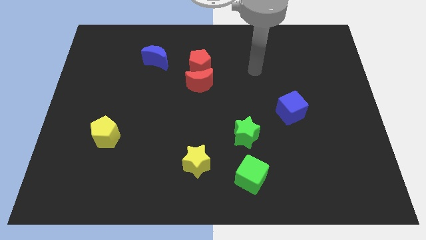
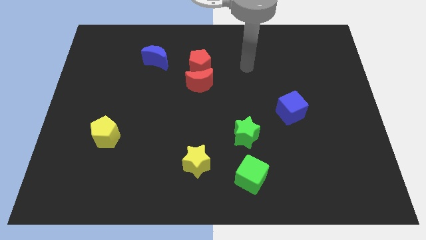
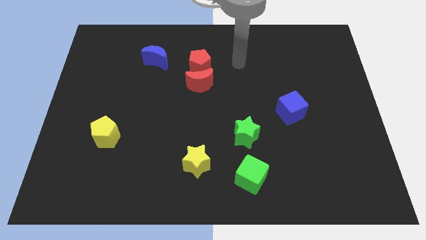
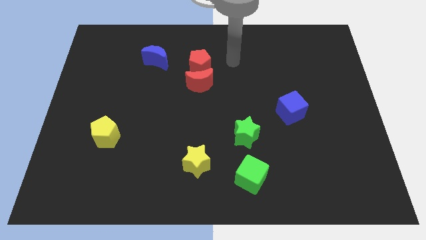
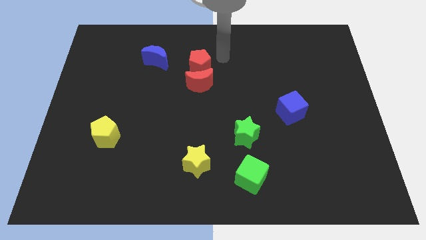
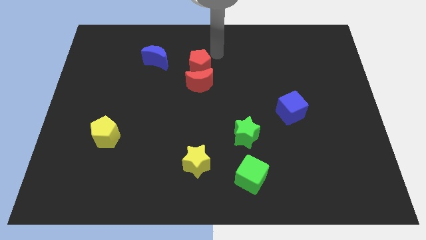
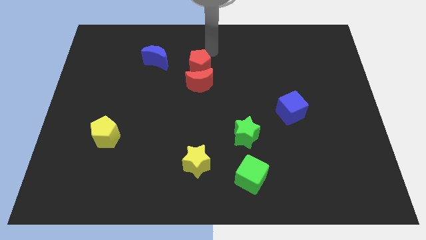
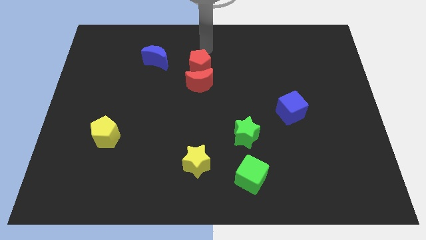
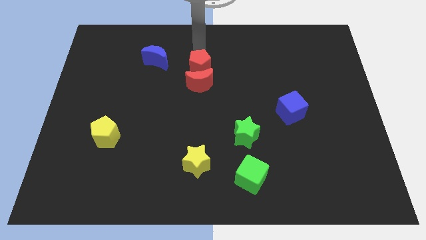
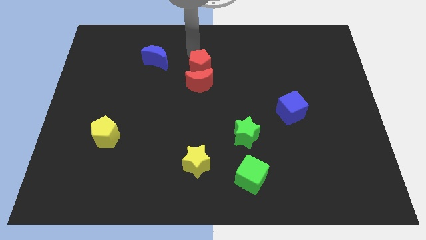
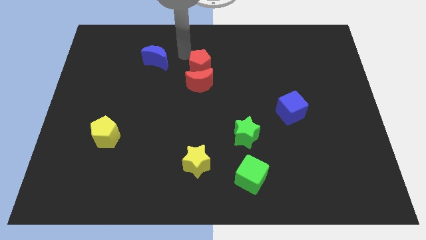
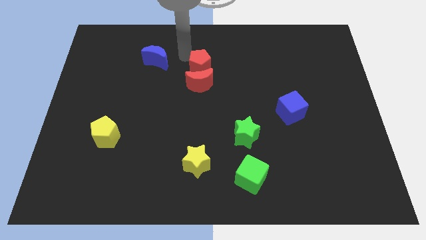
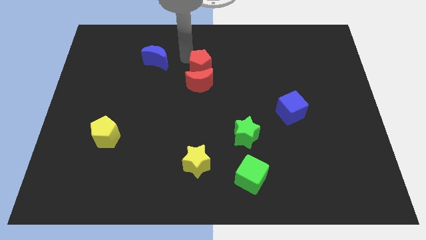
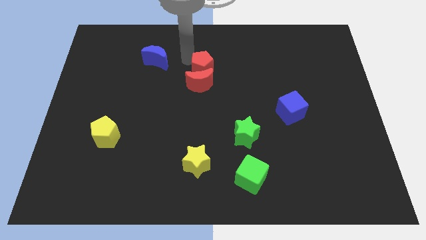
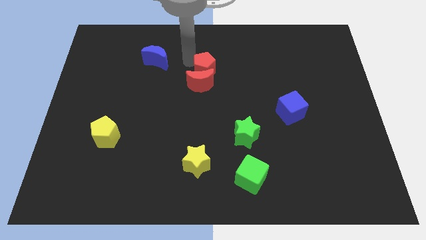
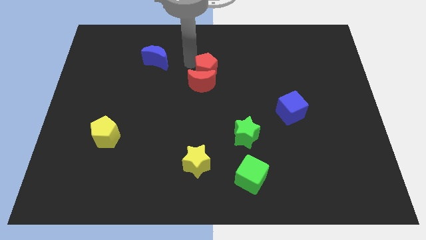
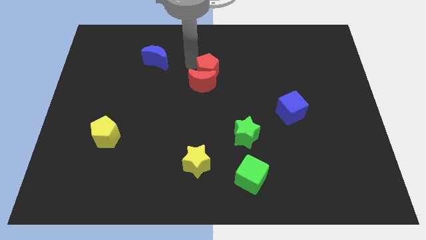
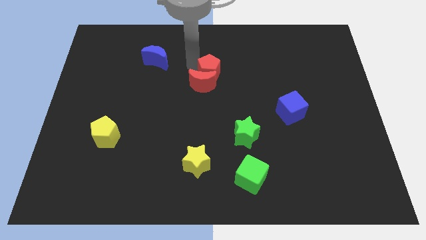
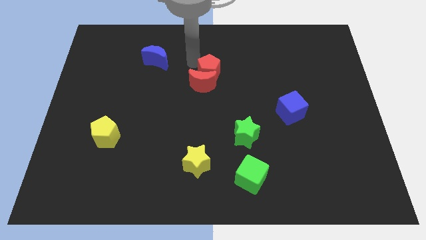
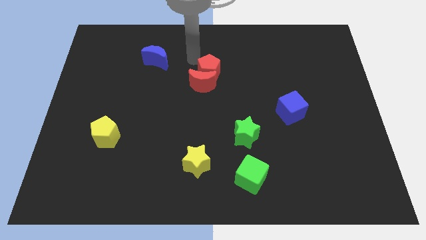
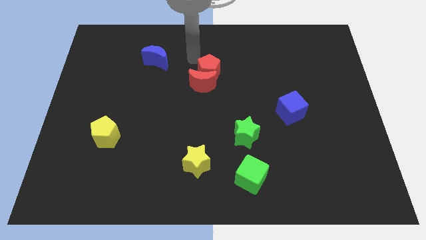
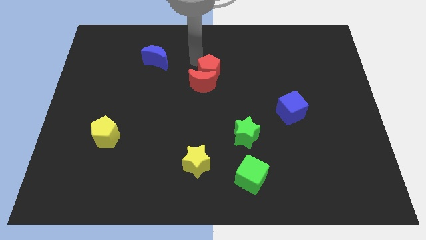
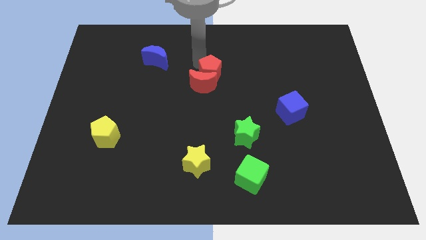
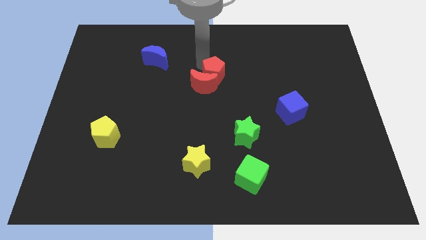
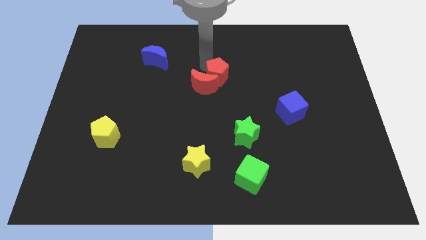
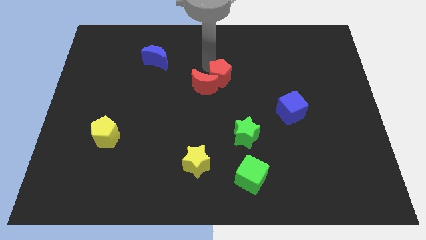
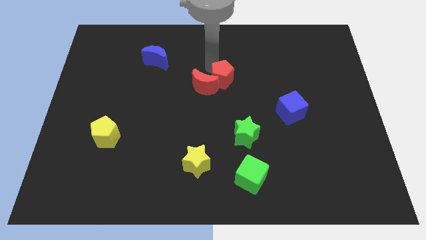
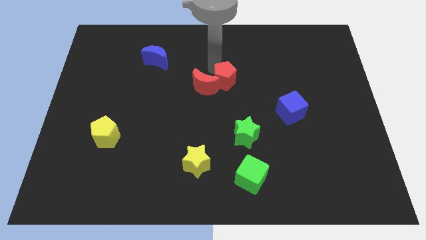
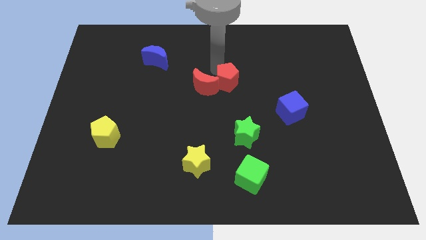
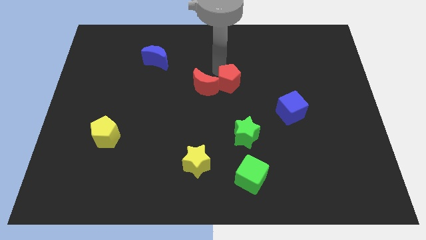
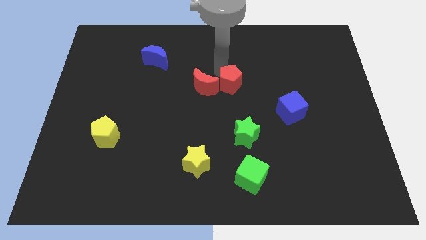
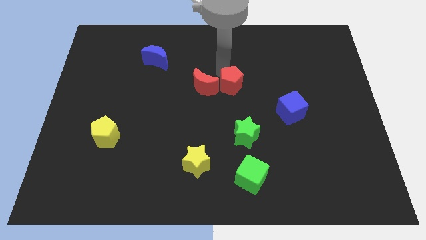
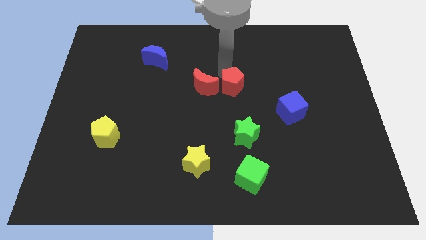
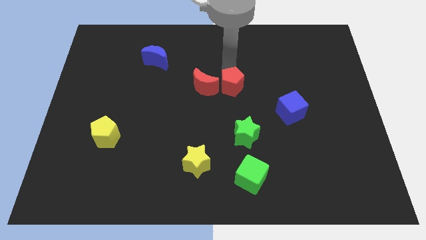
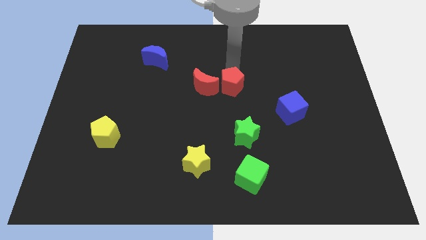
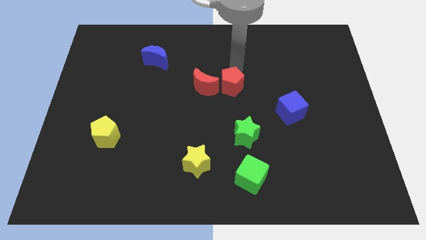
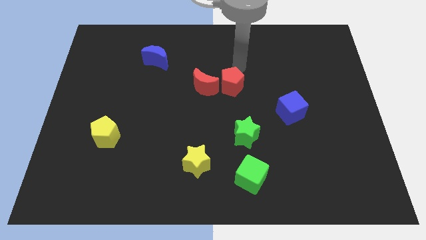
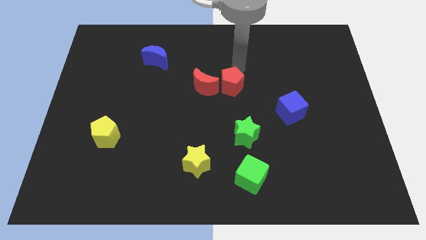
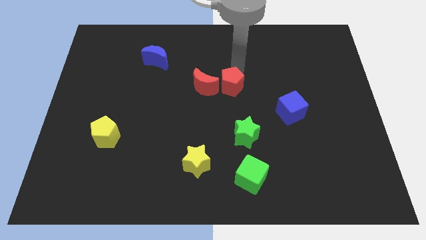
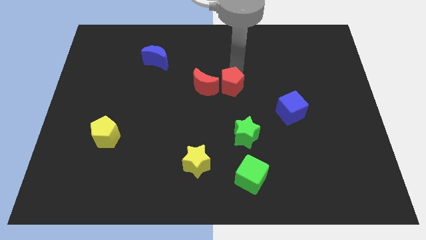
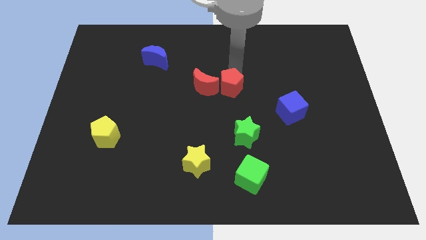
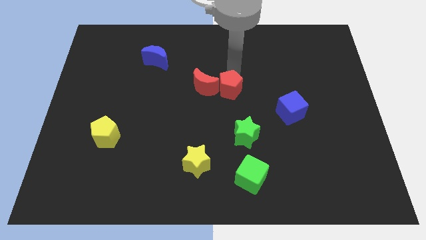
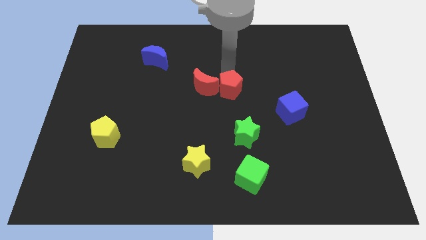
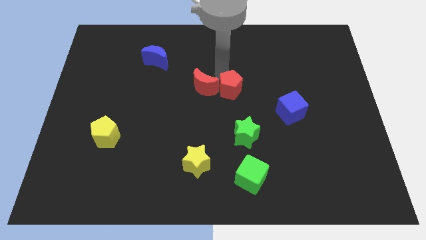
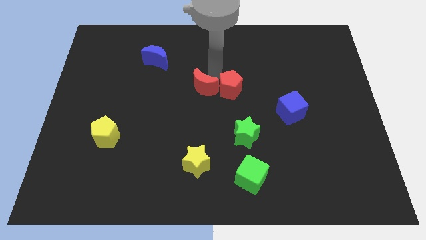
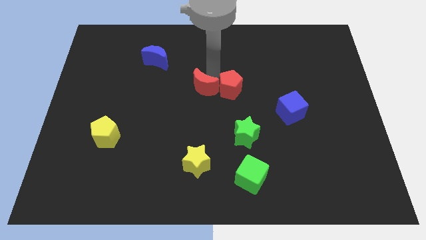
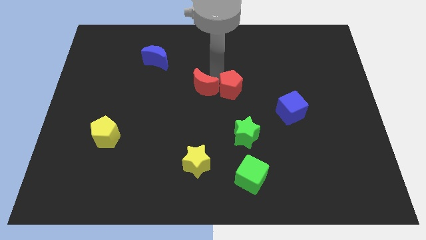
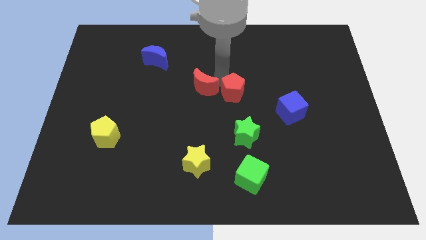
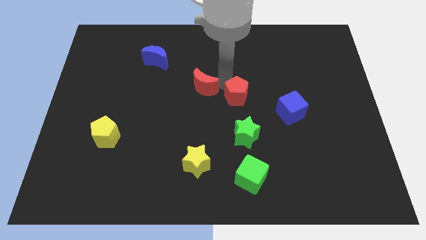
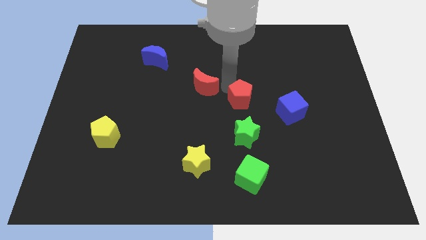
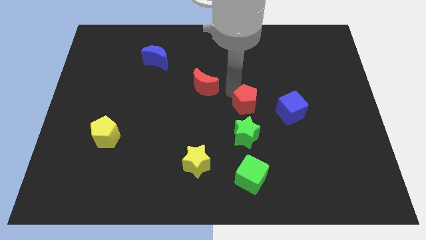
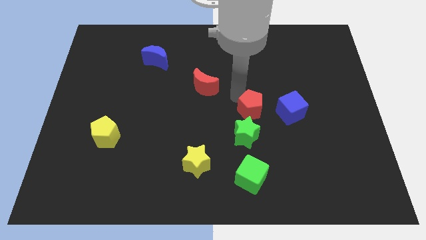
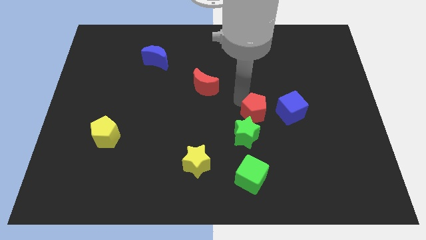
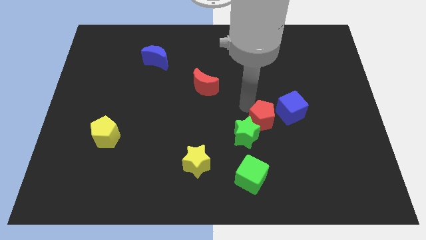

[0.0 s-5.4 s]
slide the red pentagon down and to the right diagonally

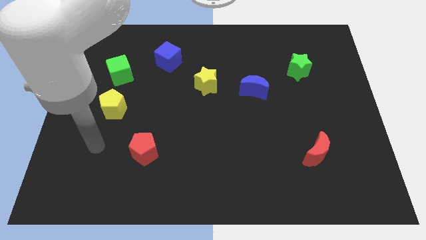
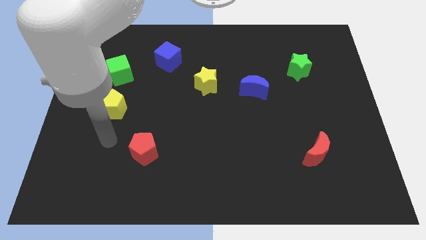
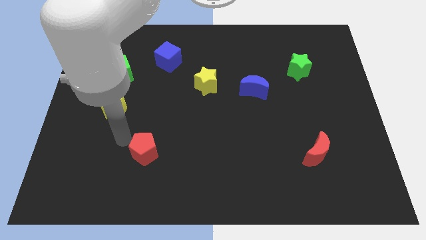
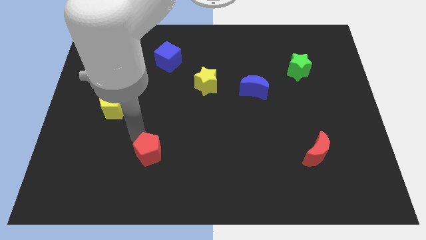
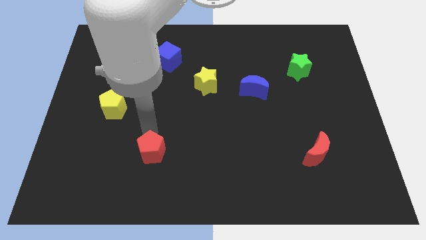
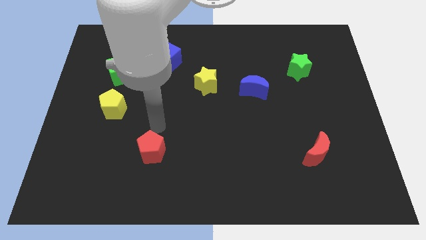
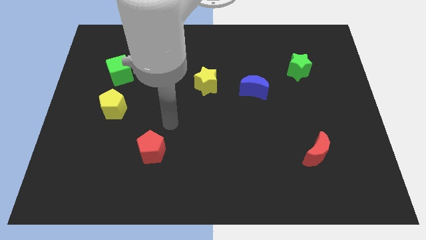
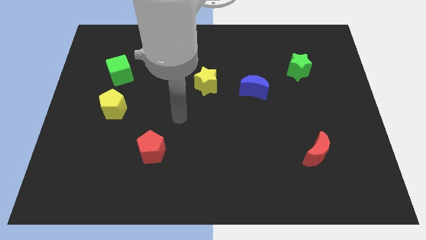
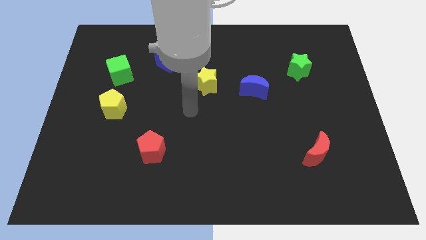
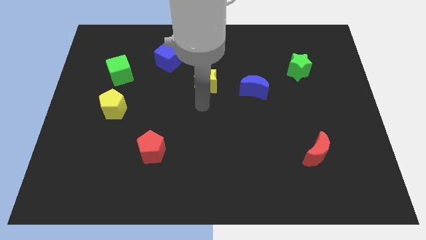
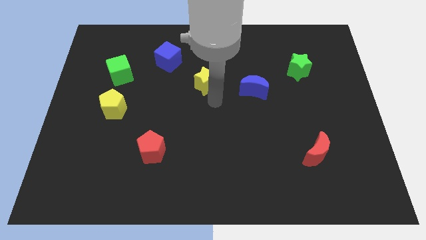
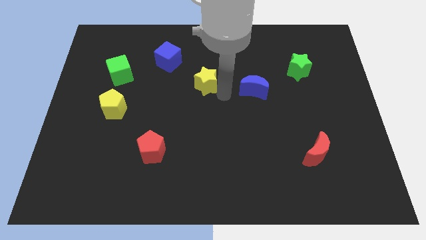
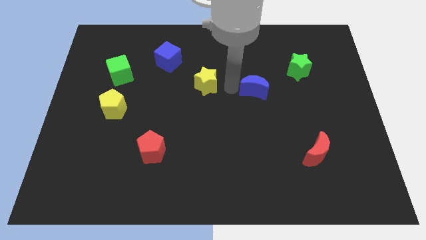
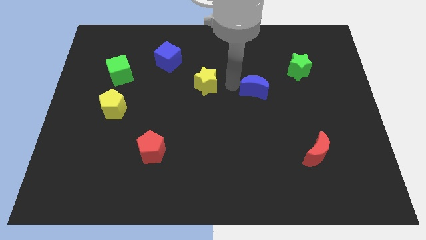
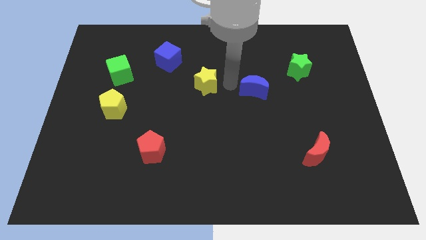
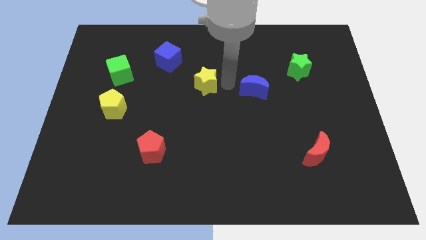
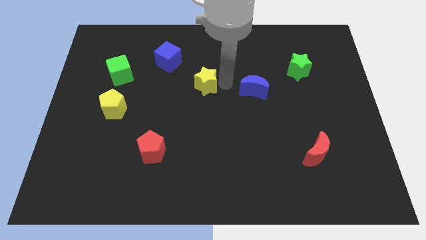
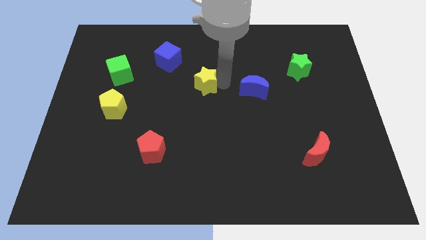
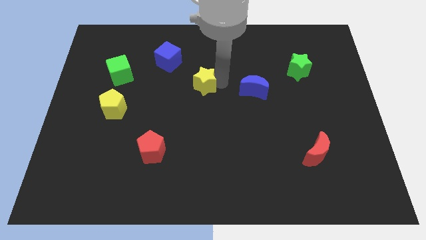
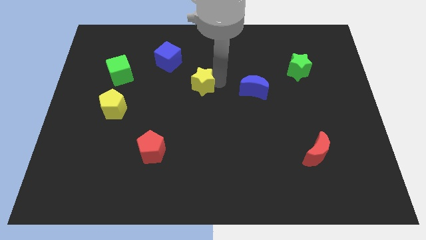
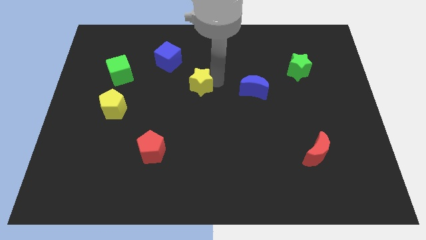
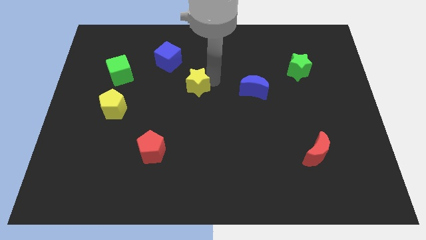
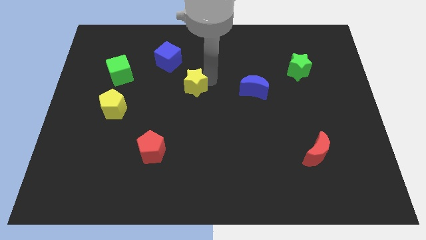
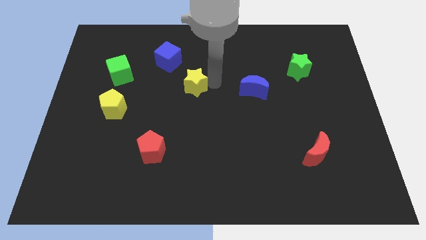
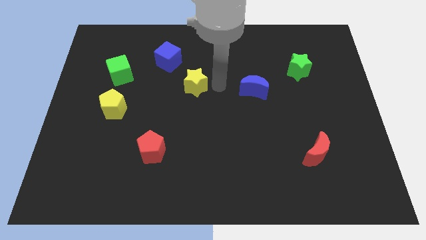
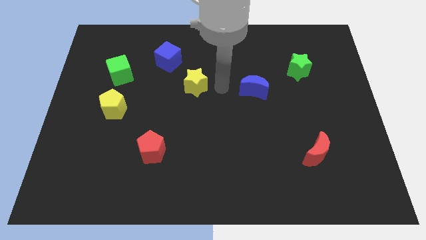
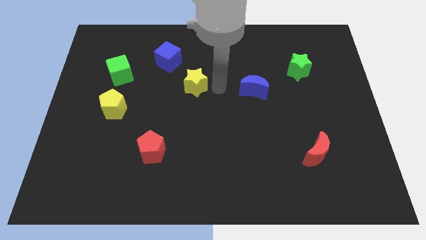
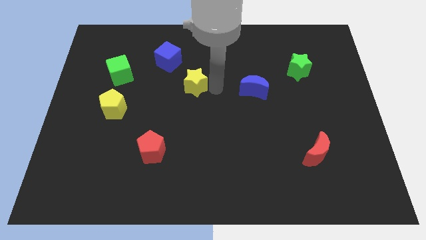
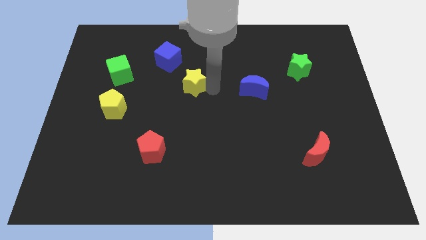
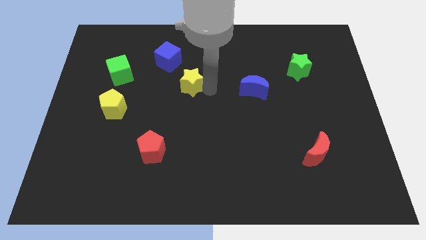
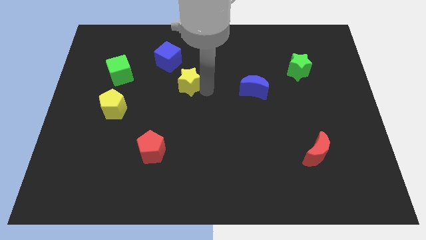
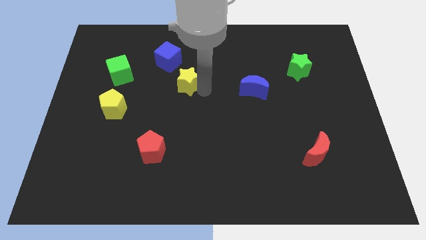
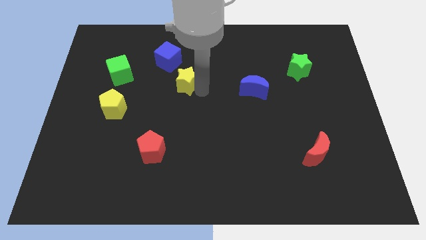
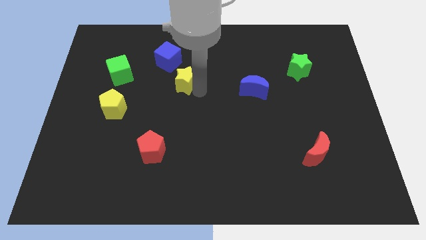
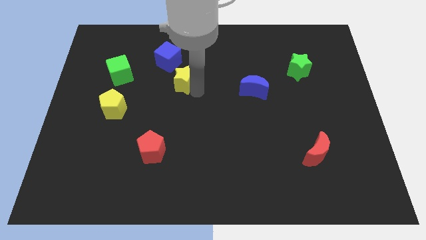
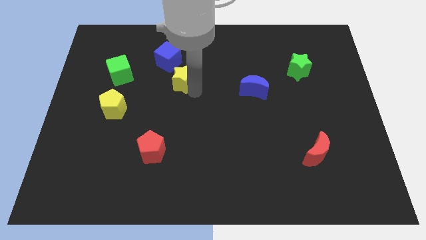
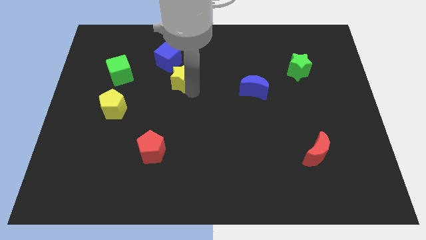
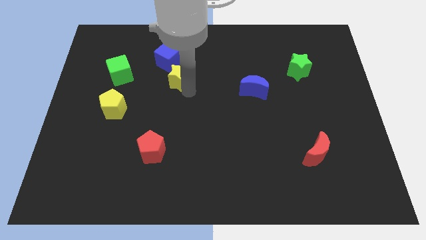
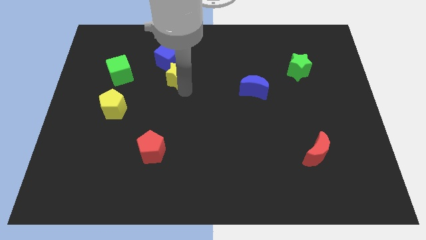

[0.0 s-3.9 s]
slide the yellow star left a little bit
